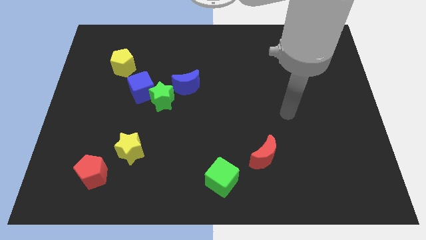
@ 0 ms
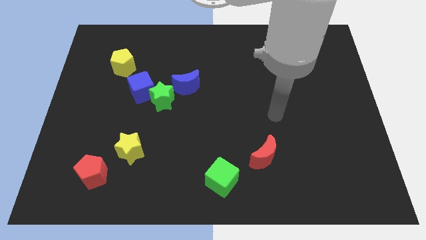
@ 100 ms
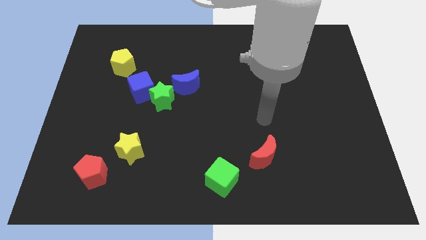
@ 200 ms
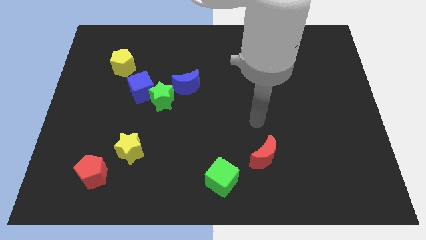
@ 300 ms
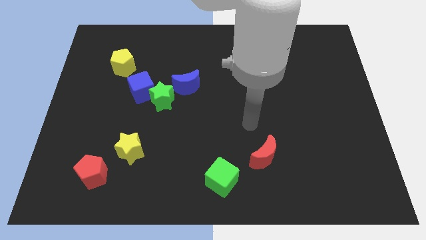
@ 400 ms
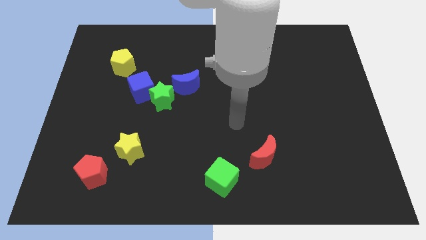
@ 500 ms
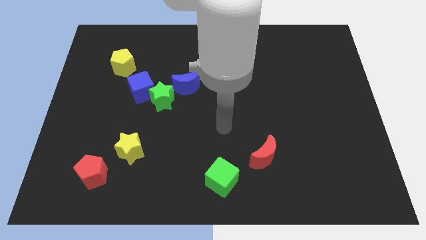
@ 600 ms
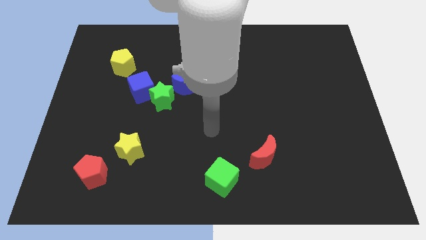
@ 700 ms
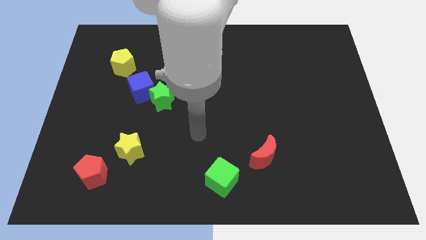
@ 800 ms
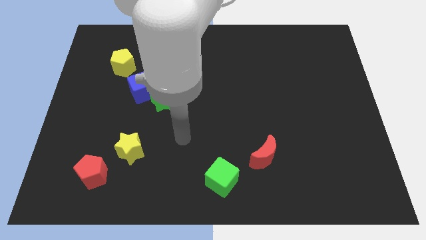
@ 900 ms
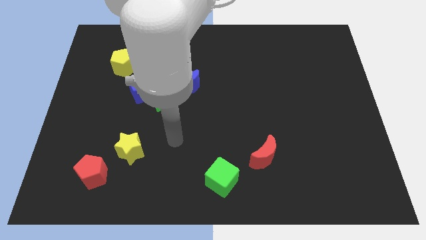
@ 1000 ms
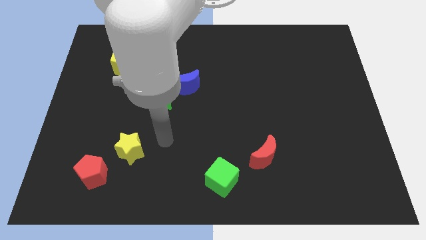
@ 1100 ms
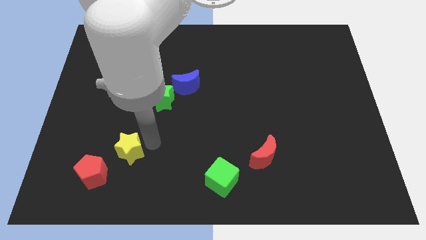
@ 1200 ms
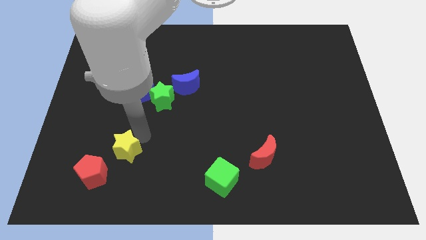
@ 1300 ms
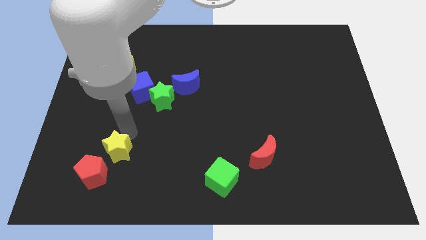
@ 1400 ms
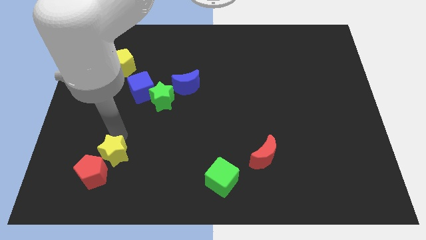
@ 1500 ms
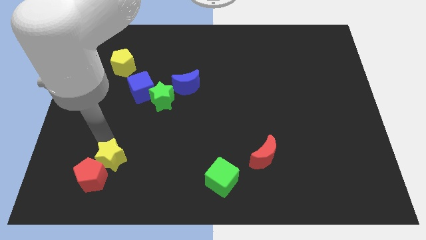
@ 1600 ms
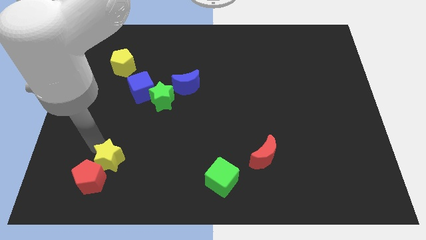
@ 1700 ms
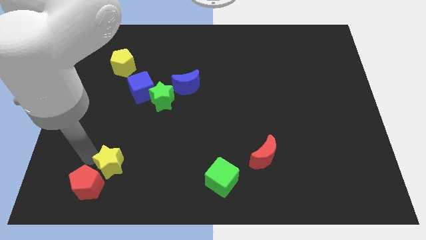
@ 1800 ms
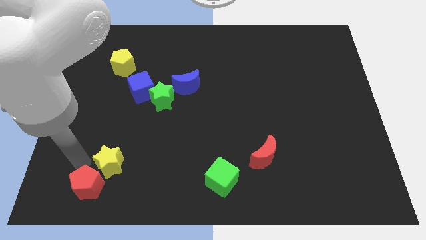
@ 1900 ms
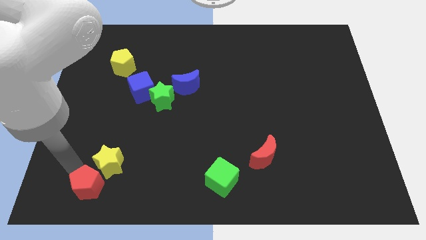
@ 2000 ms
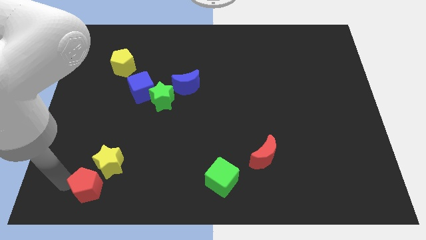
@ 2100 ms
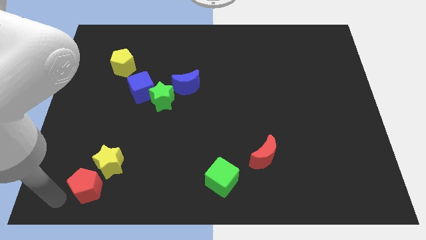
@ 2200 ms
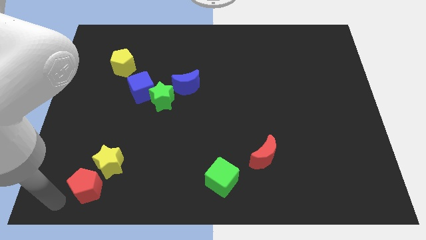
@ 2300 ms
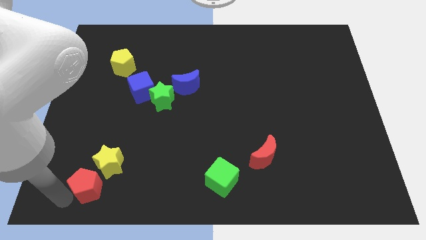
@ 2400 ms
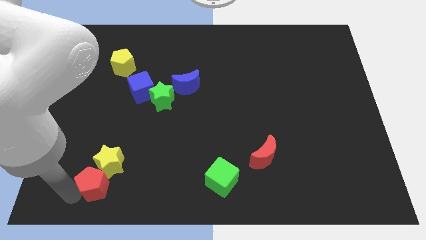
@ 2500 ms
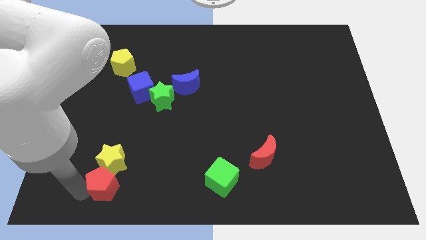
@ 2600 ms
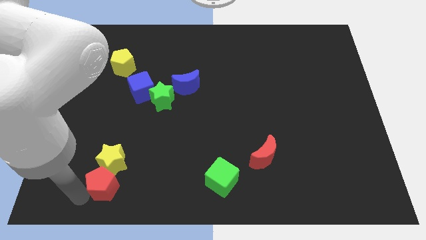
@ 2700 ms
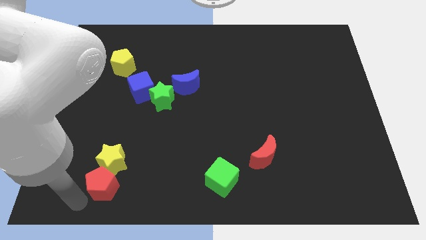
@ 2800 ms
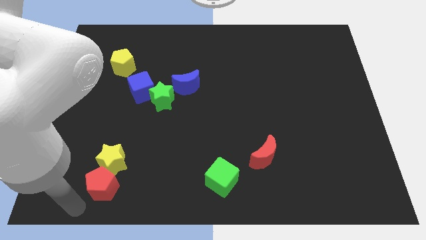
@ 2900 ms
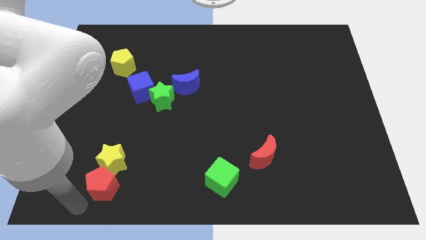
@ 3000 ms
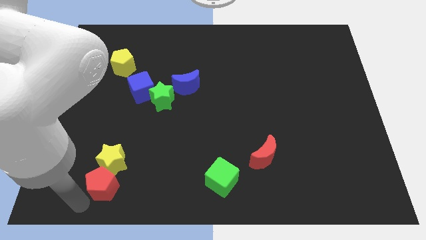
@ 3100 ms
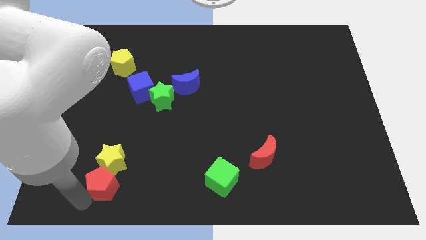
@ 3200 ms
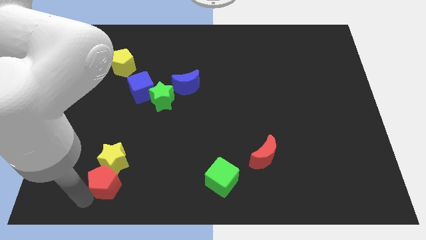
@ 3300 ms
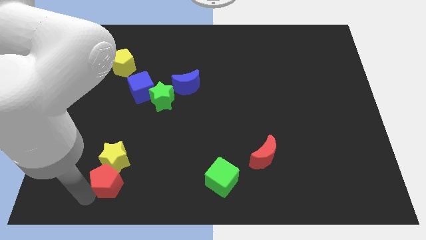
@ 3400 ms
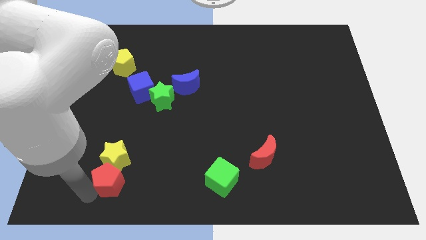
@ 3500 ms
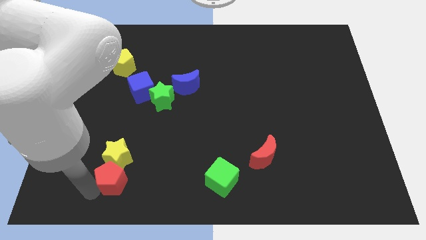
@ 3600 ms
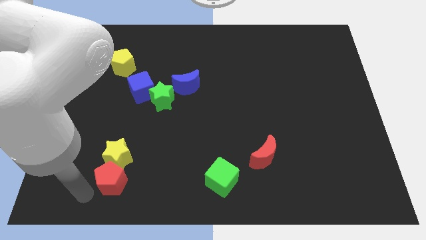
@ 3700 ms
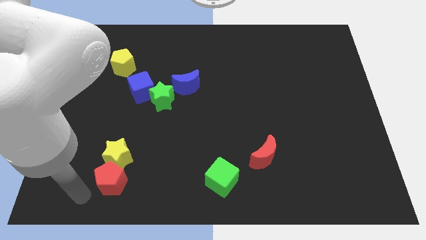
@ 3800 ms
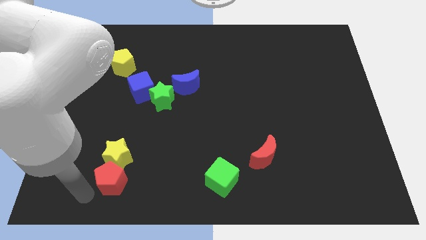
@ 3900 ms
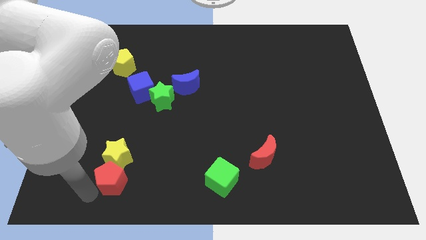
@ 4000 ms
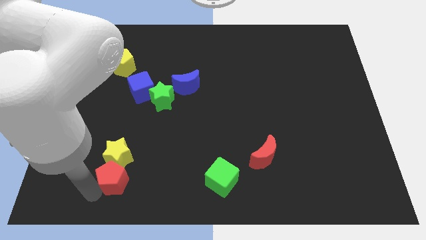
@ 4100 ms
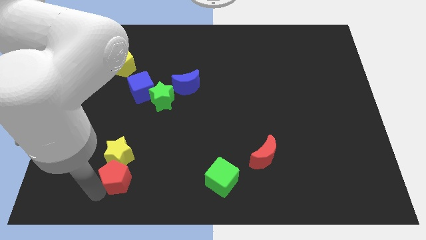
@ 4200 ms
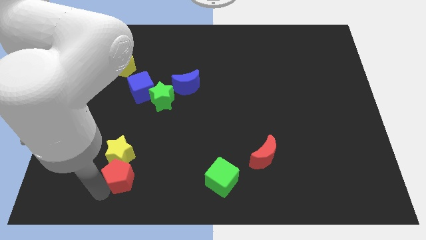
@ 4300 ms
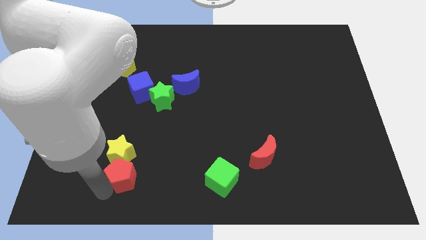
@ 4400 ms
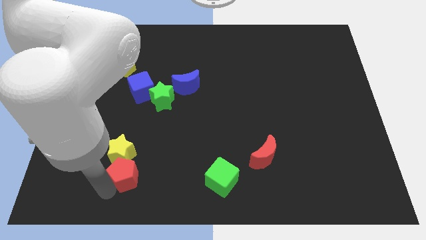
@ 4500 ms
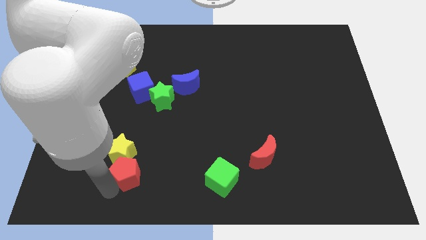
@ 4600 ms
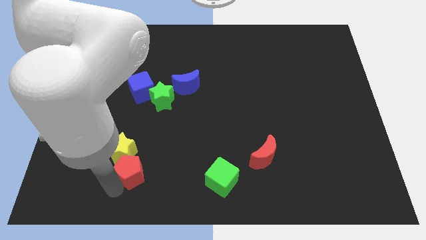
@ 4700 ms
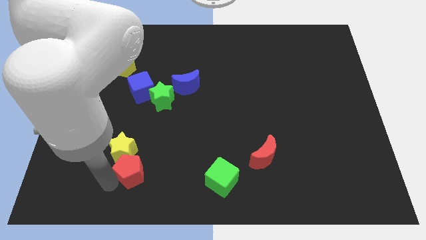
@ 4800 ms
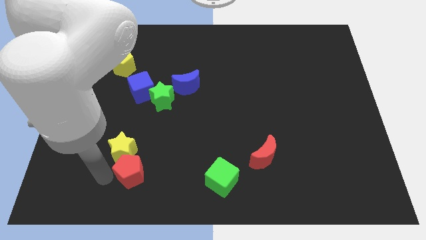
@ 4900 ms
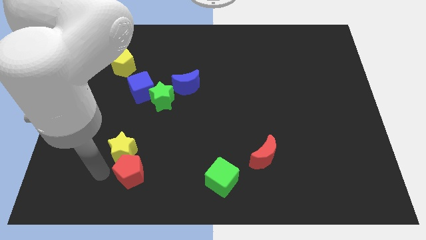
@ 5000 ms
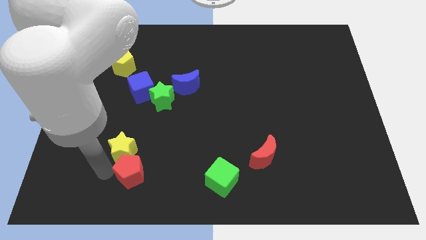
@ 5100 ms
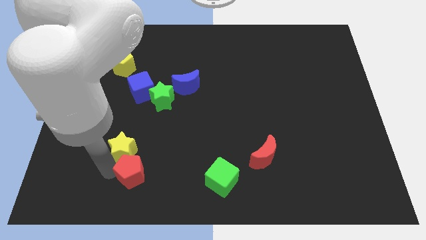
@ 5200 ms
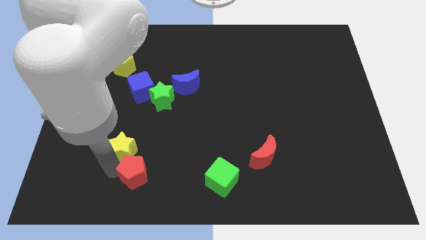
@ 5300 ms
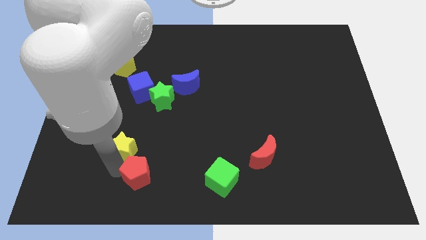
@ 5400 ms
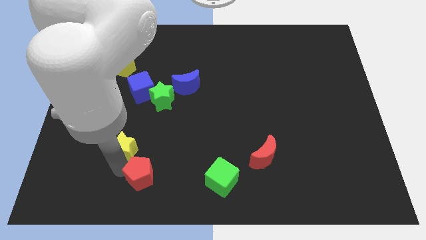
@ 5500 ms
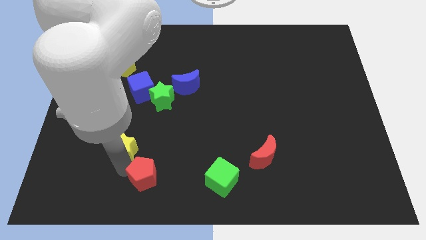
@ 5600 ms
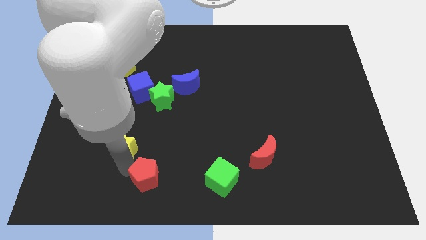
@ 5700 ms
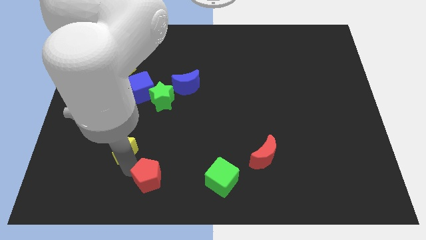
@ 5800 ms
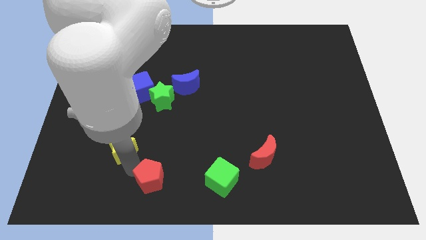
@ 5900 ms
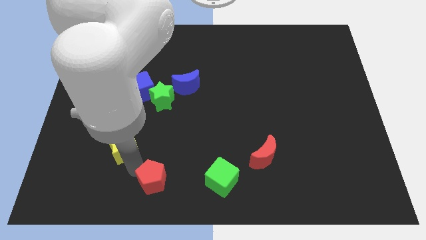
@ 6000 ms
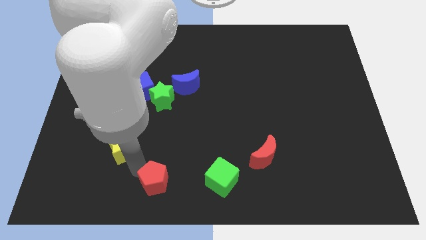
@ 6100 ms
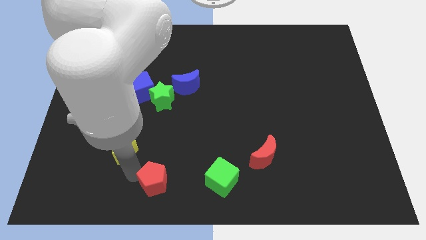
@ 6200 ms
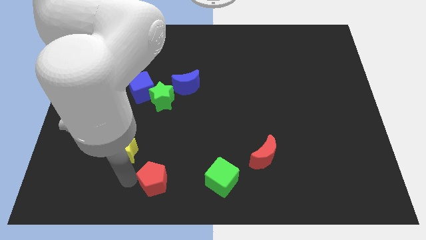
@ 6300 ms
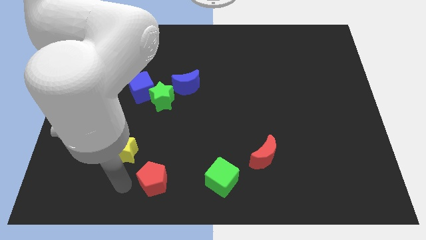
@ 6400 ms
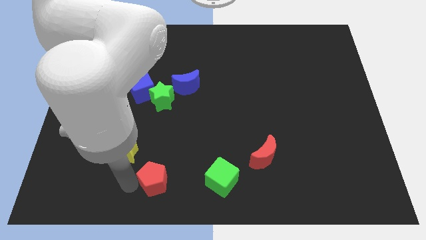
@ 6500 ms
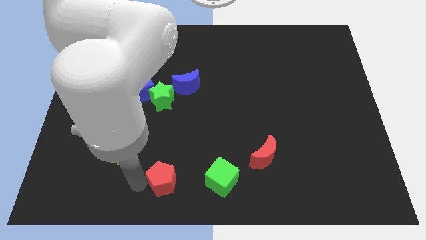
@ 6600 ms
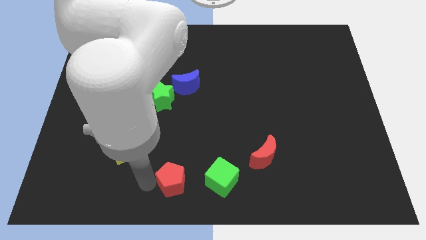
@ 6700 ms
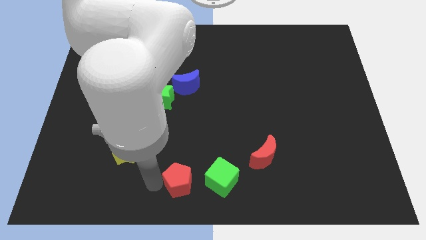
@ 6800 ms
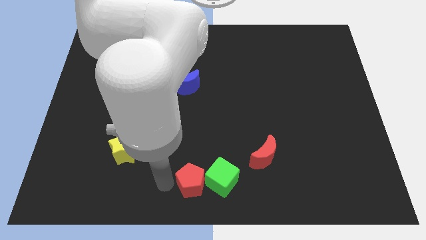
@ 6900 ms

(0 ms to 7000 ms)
move the red pentagon close to the green cube
